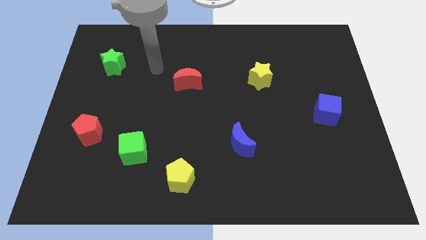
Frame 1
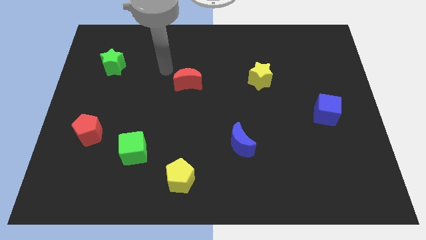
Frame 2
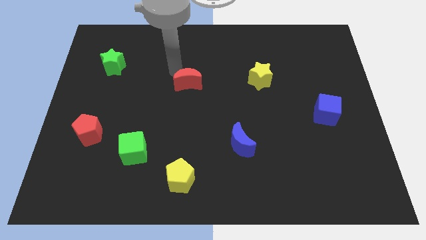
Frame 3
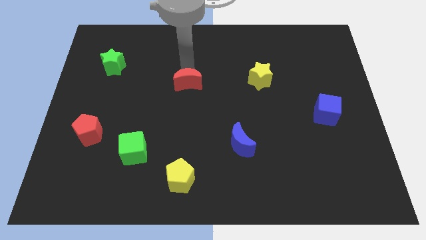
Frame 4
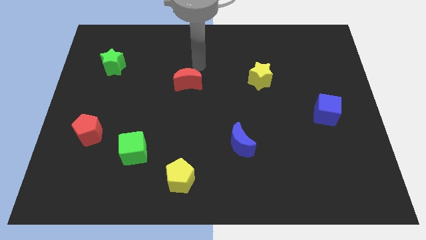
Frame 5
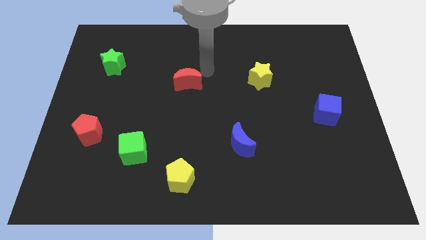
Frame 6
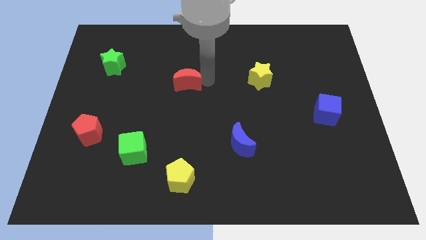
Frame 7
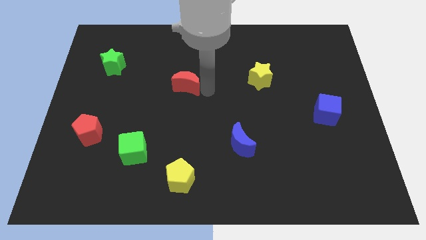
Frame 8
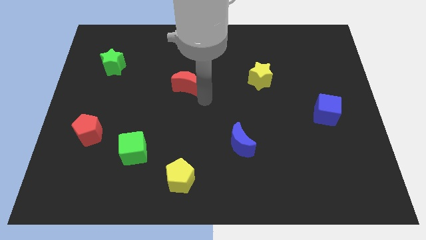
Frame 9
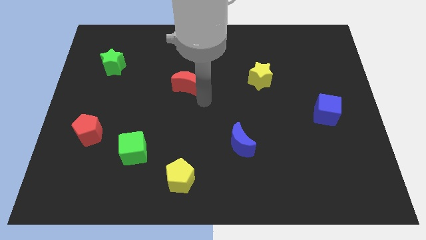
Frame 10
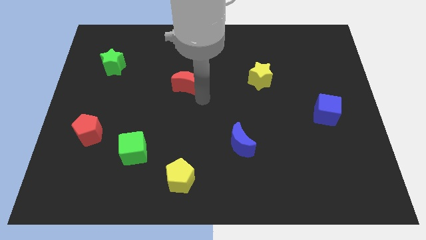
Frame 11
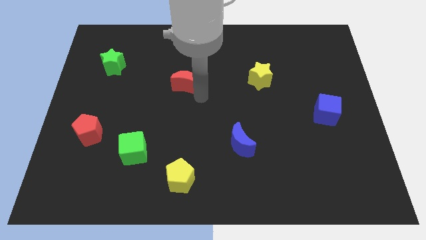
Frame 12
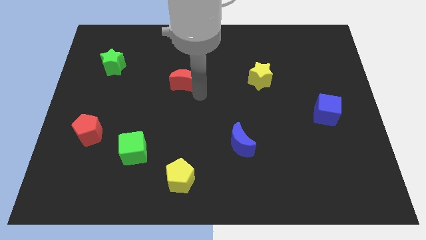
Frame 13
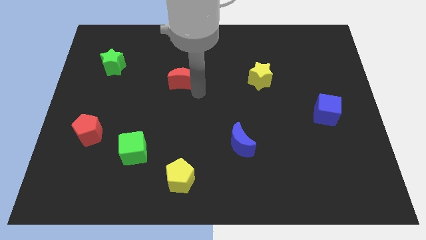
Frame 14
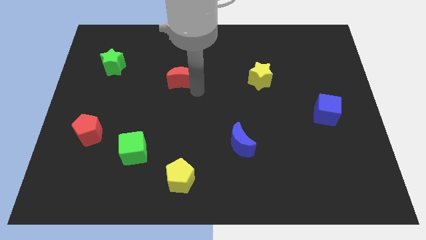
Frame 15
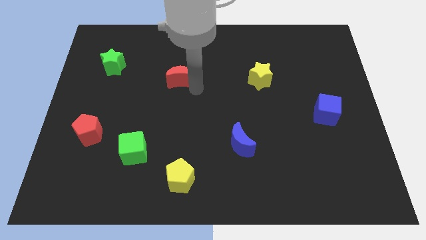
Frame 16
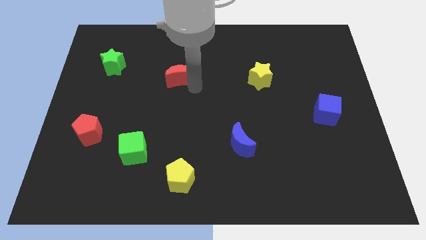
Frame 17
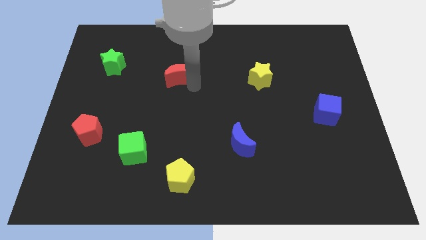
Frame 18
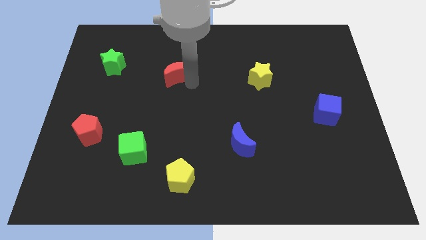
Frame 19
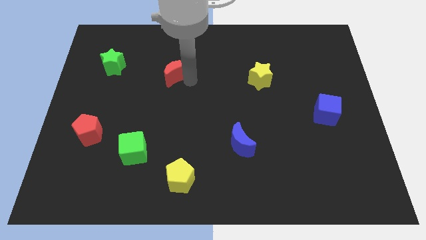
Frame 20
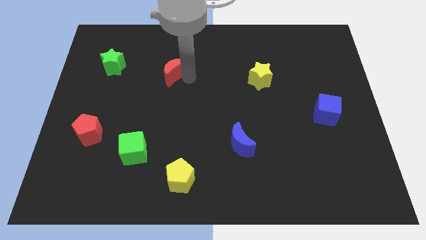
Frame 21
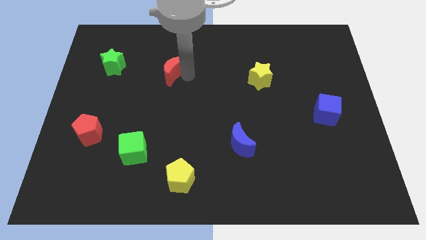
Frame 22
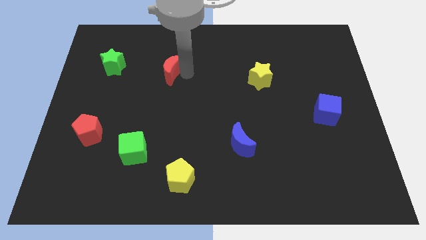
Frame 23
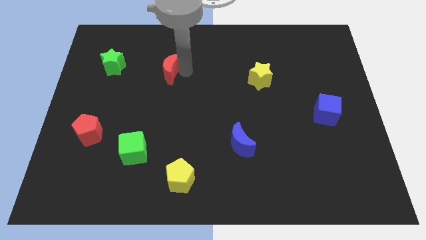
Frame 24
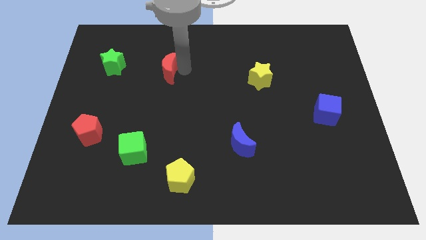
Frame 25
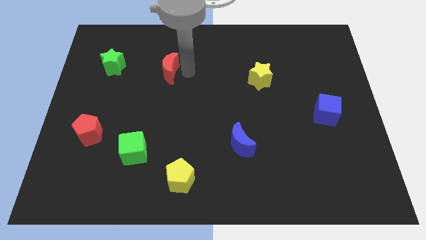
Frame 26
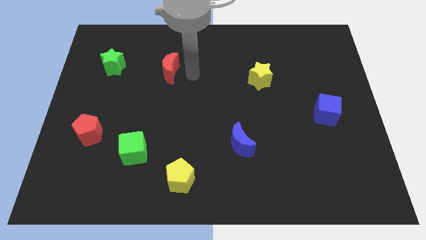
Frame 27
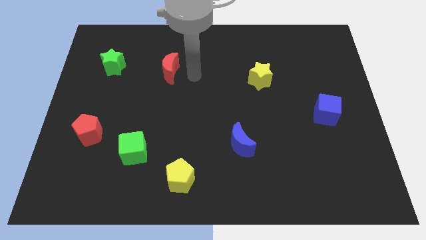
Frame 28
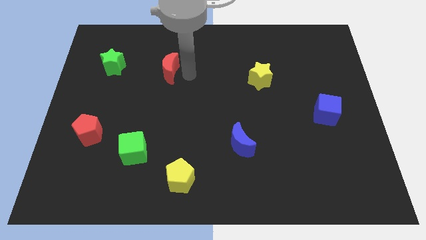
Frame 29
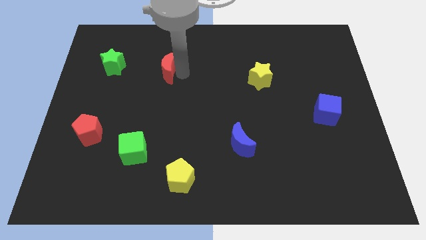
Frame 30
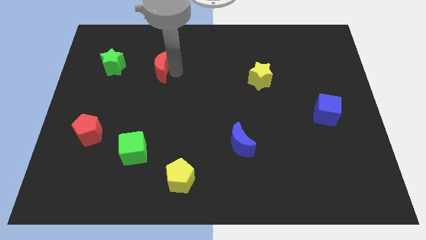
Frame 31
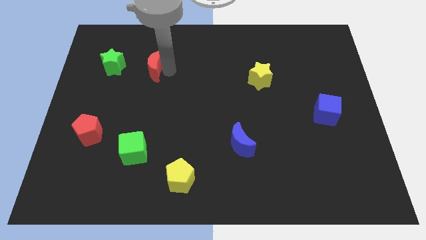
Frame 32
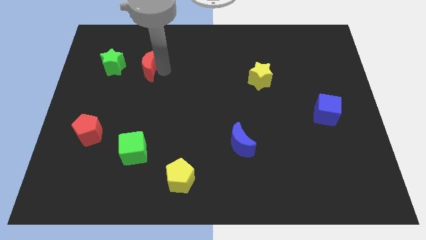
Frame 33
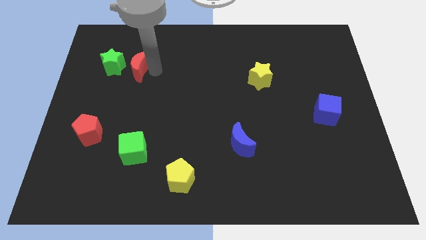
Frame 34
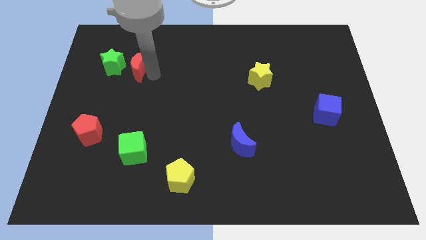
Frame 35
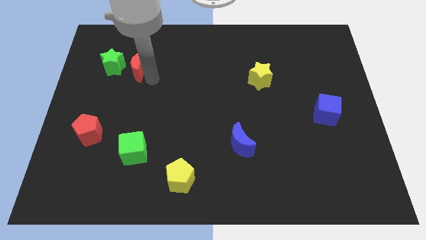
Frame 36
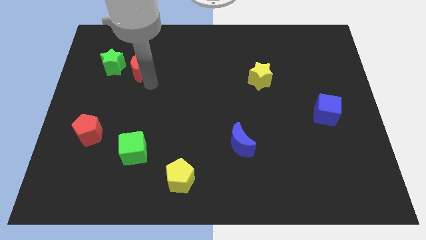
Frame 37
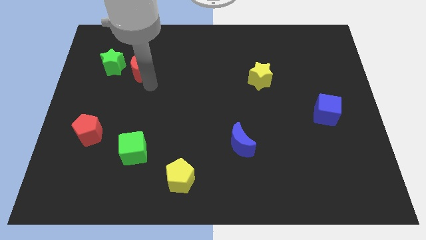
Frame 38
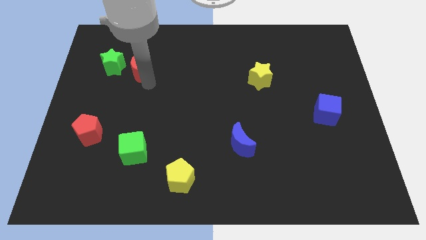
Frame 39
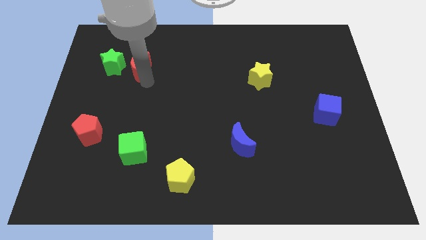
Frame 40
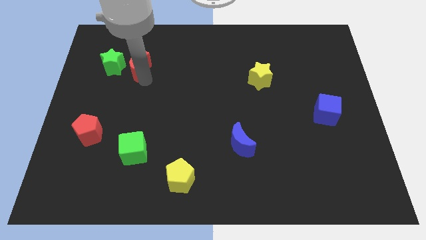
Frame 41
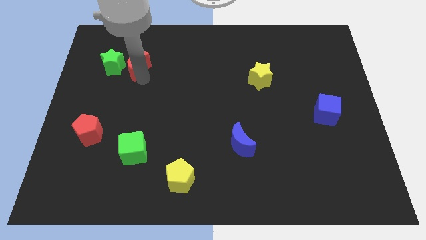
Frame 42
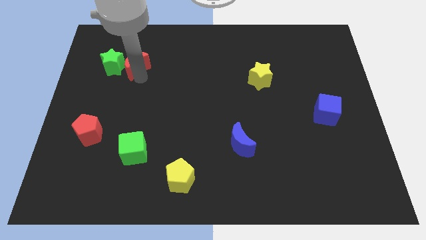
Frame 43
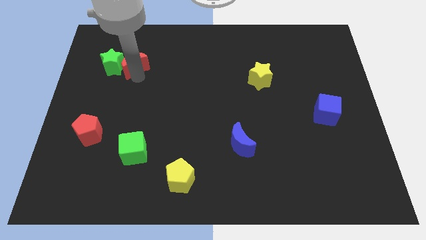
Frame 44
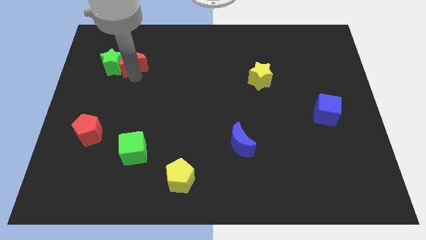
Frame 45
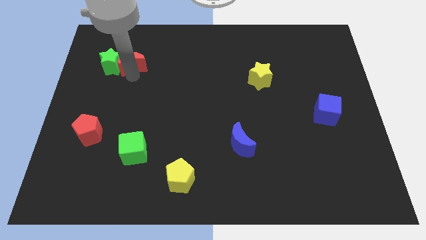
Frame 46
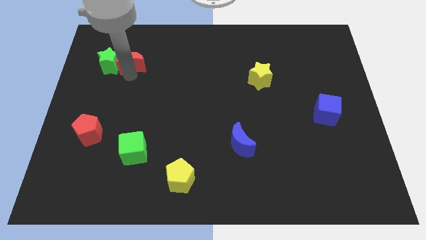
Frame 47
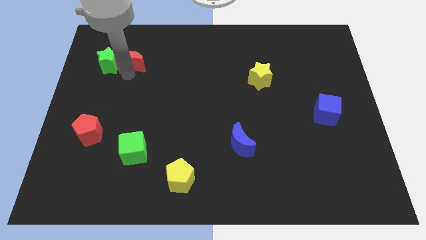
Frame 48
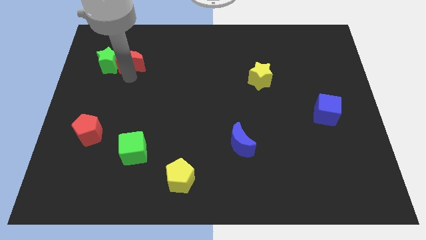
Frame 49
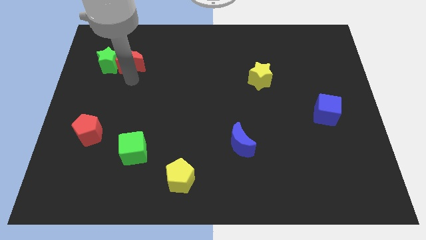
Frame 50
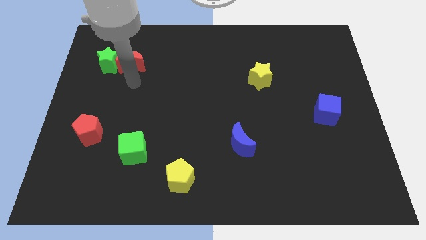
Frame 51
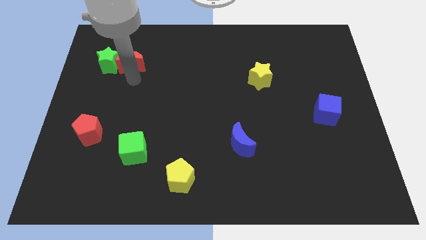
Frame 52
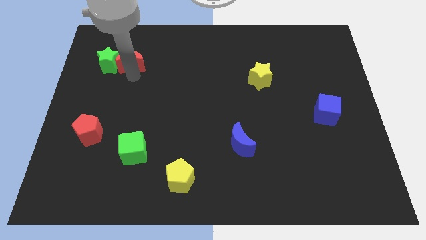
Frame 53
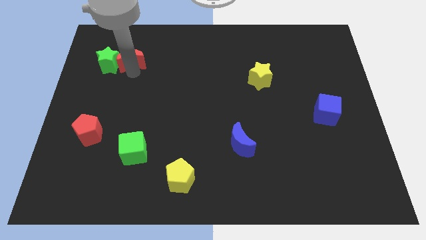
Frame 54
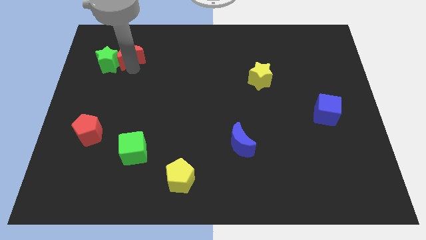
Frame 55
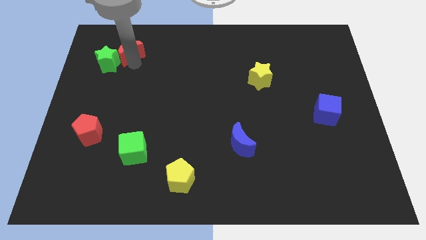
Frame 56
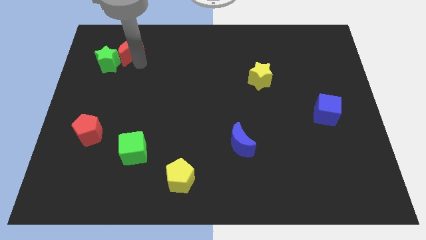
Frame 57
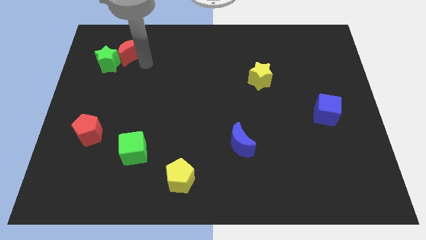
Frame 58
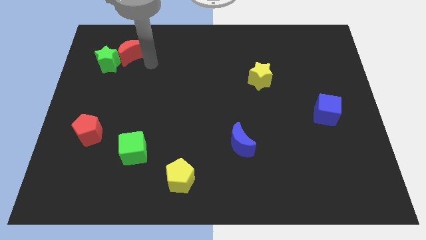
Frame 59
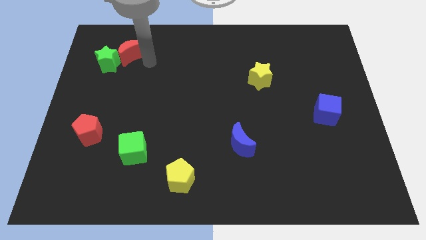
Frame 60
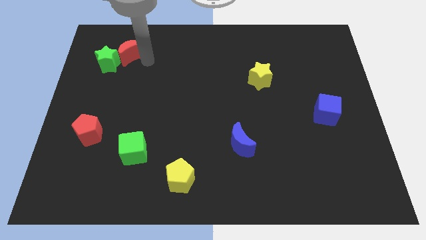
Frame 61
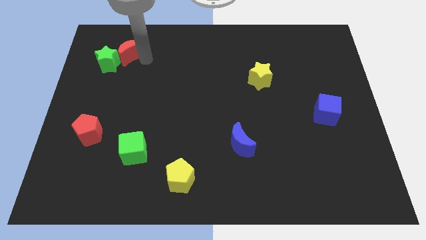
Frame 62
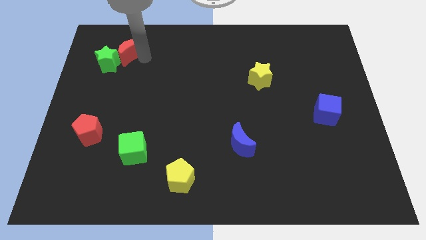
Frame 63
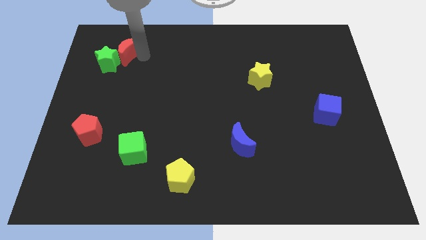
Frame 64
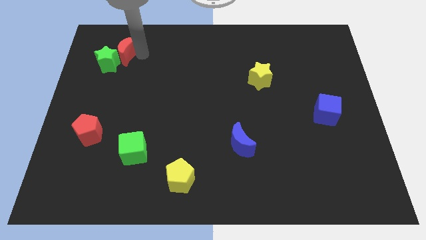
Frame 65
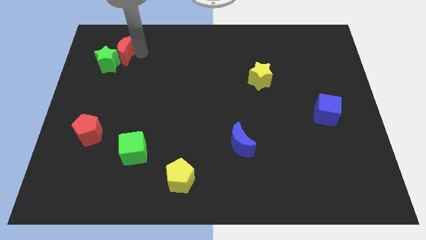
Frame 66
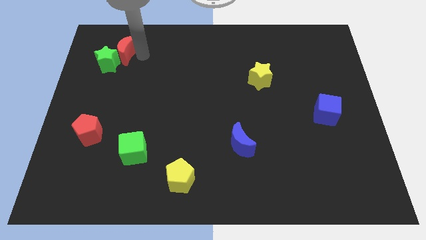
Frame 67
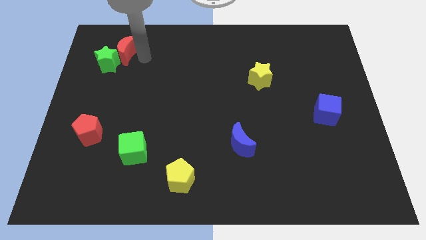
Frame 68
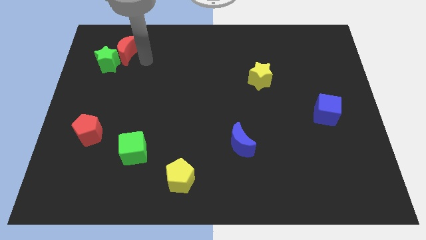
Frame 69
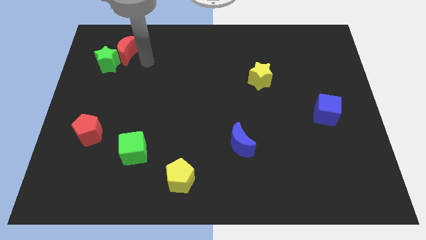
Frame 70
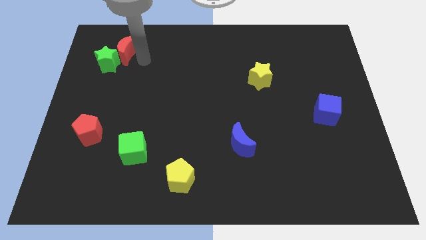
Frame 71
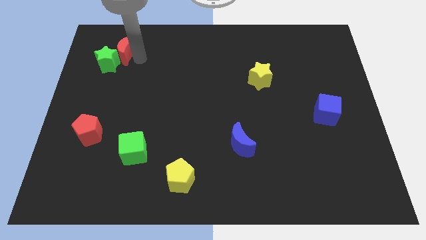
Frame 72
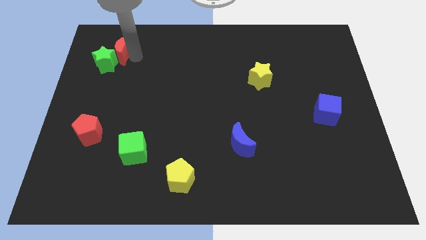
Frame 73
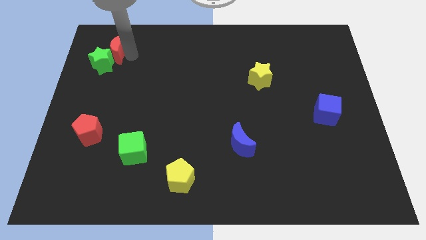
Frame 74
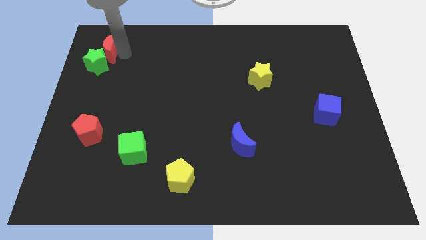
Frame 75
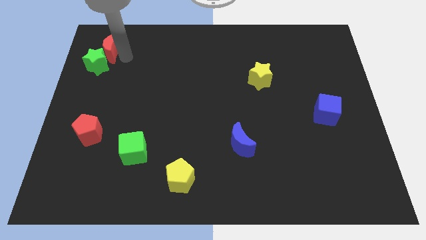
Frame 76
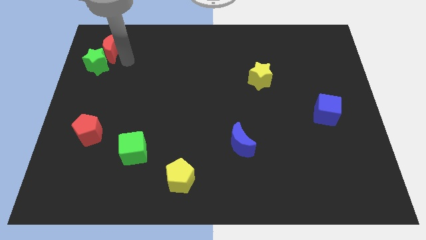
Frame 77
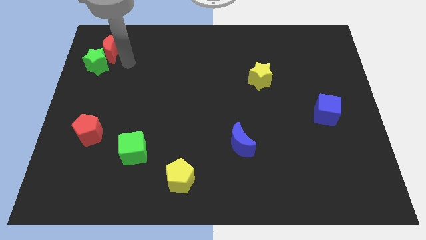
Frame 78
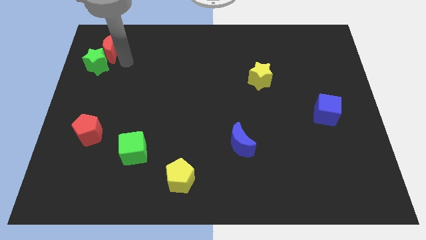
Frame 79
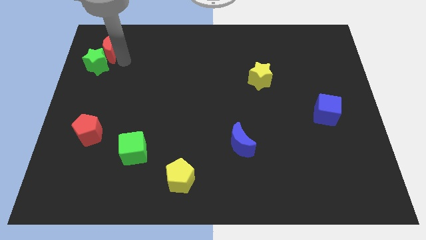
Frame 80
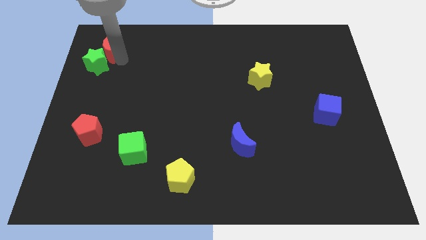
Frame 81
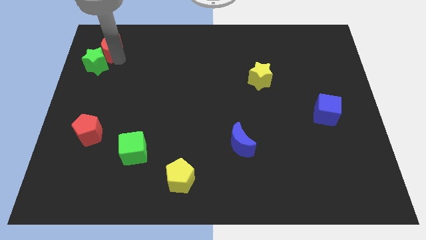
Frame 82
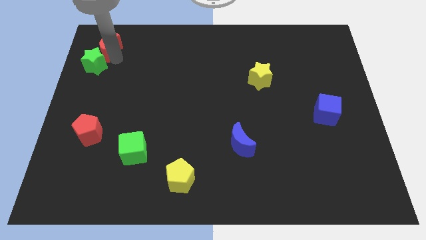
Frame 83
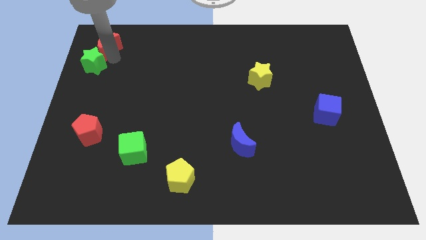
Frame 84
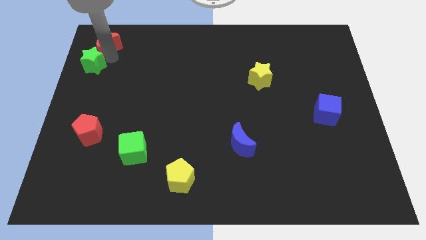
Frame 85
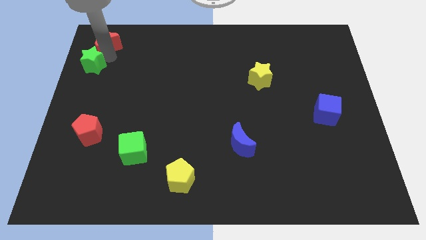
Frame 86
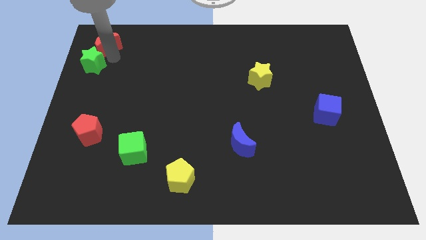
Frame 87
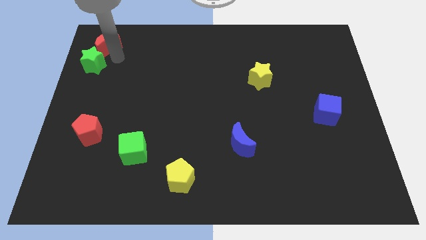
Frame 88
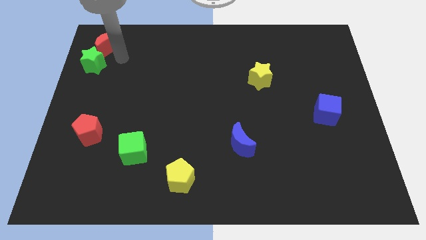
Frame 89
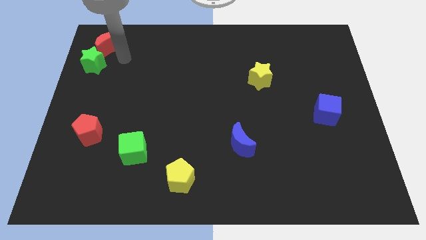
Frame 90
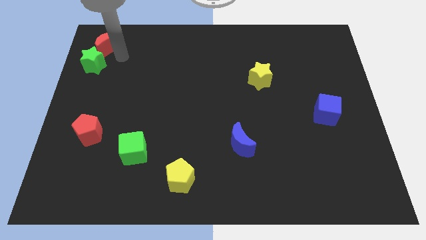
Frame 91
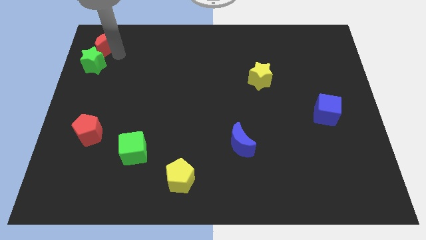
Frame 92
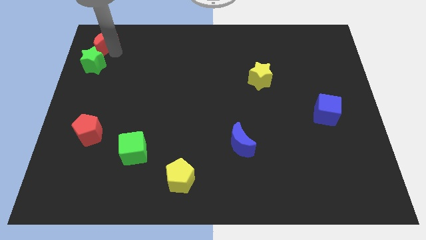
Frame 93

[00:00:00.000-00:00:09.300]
put the red moon to the top left corner
